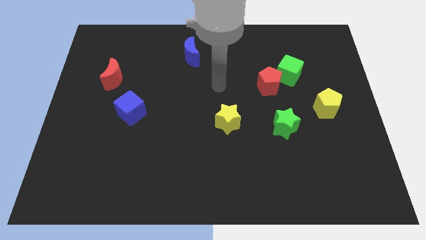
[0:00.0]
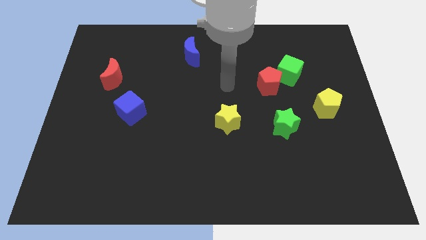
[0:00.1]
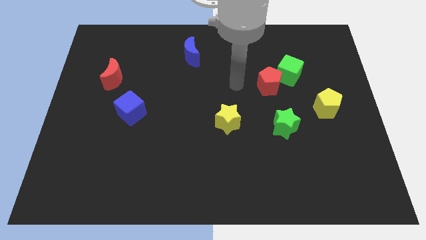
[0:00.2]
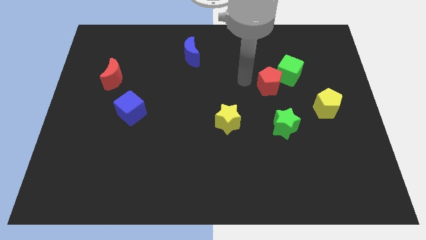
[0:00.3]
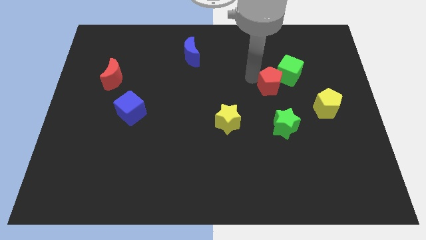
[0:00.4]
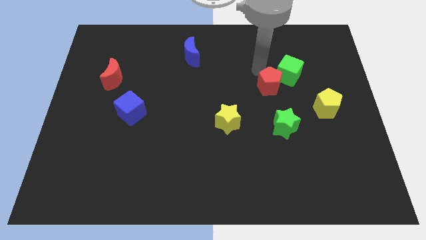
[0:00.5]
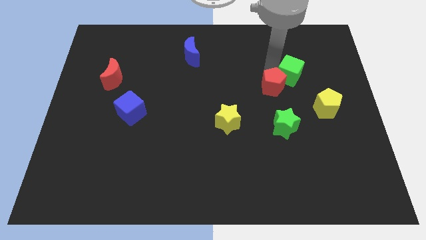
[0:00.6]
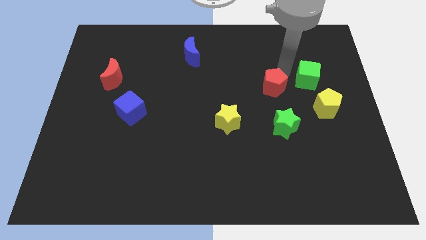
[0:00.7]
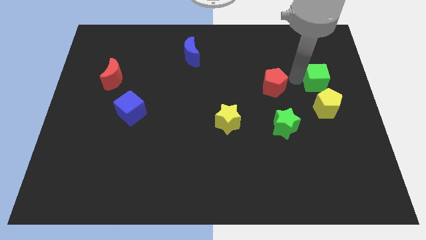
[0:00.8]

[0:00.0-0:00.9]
move the red pentagon away from the green cube

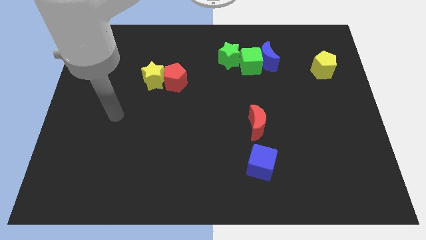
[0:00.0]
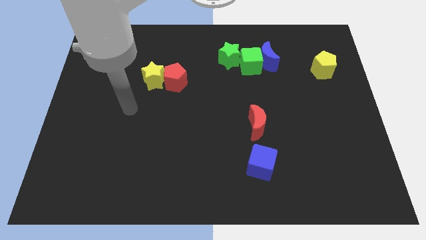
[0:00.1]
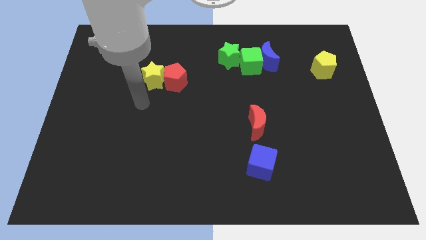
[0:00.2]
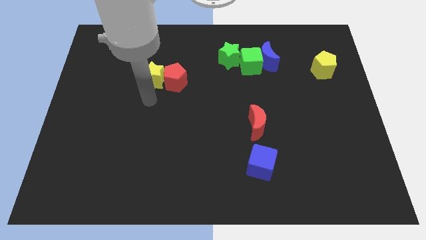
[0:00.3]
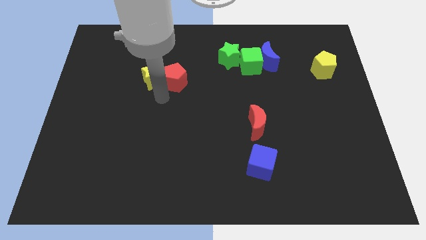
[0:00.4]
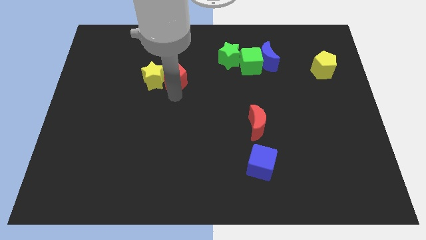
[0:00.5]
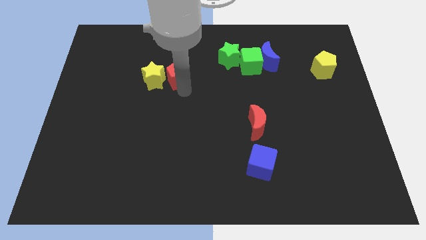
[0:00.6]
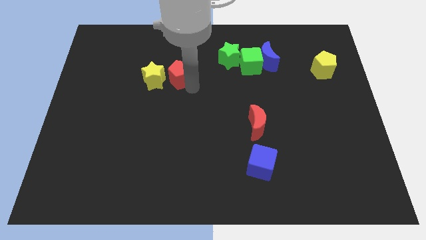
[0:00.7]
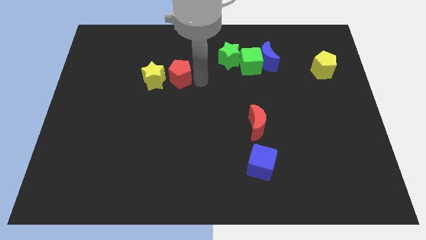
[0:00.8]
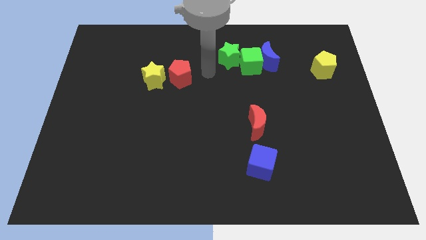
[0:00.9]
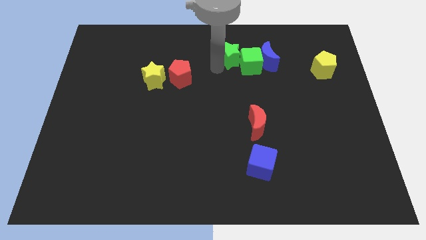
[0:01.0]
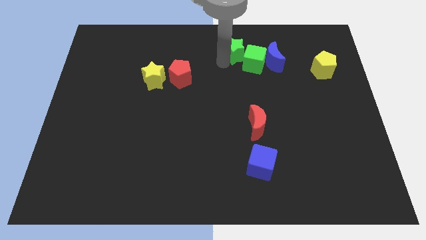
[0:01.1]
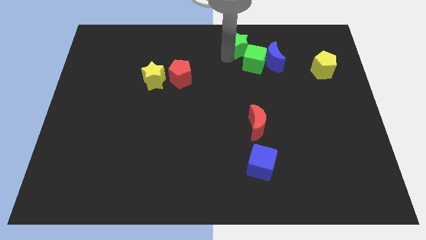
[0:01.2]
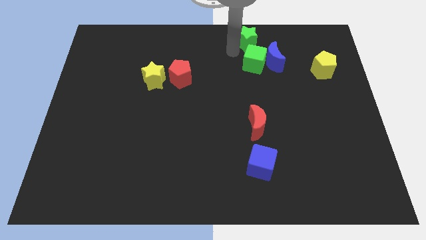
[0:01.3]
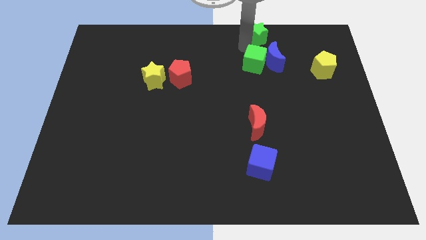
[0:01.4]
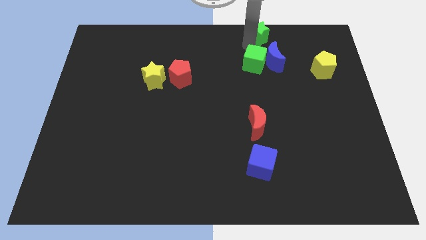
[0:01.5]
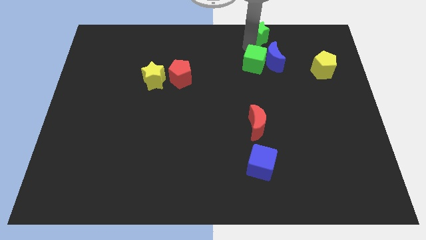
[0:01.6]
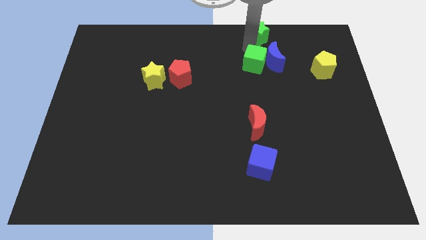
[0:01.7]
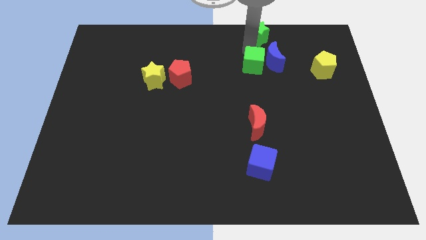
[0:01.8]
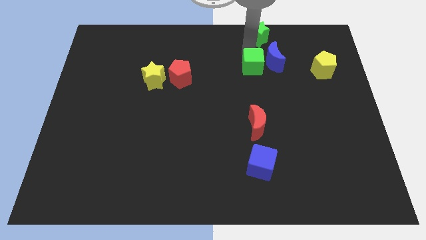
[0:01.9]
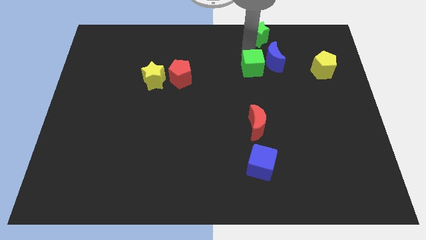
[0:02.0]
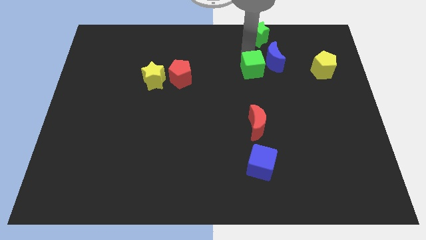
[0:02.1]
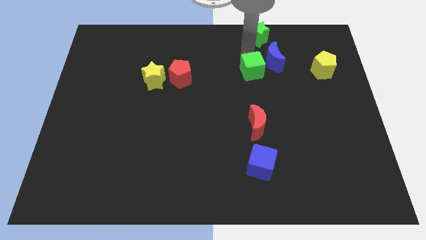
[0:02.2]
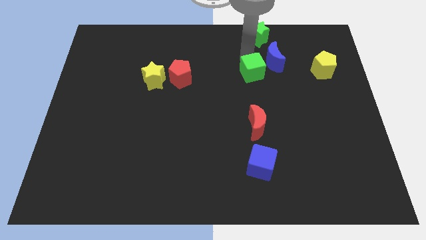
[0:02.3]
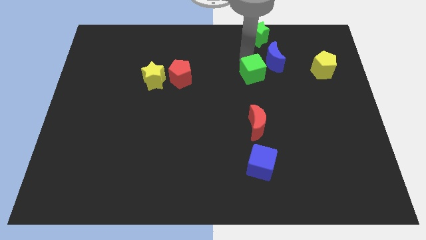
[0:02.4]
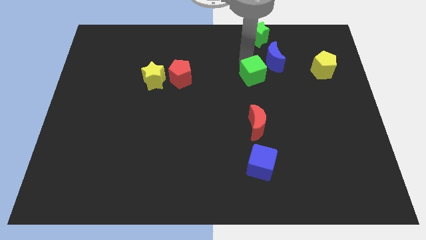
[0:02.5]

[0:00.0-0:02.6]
separate the green cube from the blue moon and green star

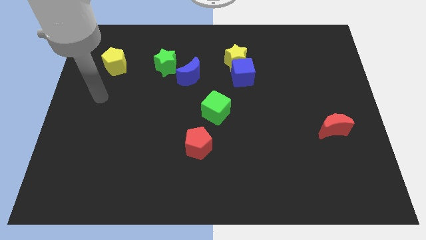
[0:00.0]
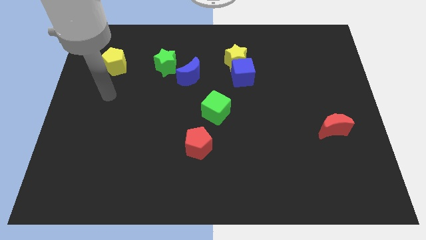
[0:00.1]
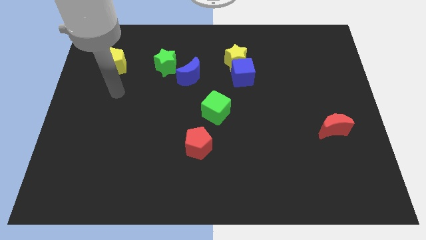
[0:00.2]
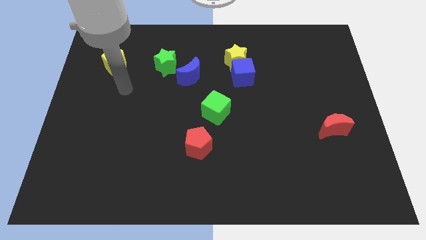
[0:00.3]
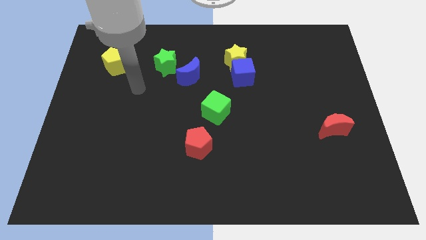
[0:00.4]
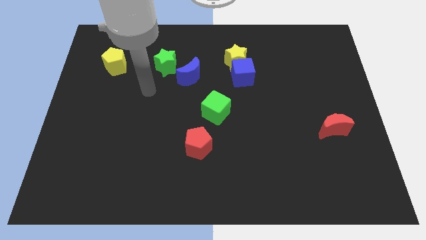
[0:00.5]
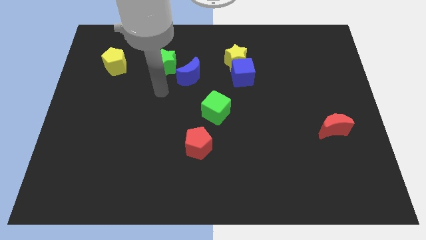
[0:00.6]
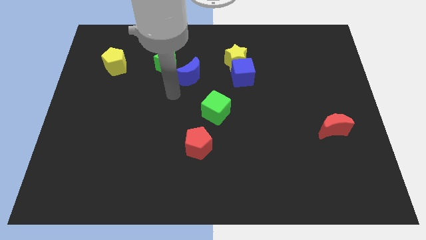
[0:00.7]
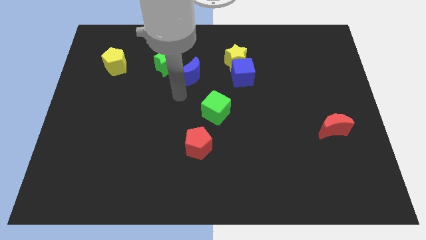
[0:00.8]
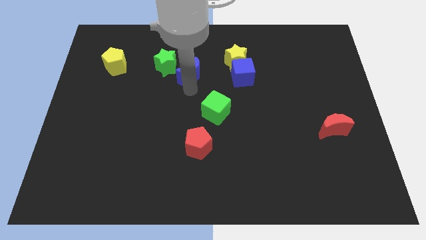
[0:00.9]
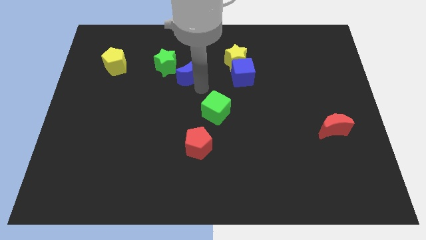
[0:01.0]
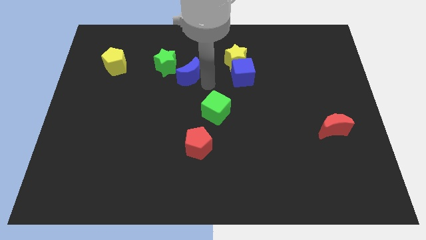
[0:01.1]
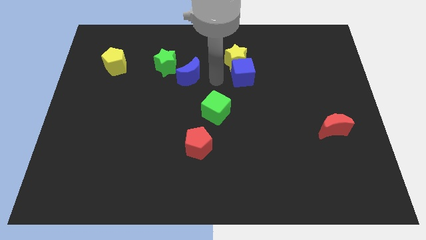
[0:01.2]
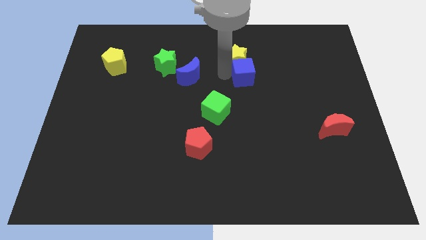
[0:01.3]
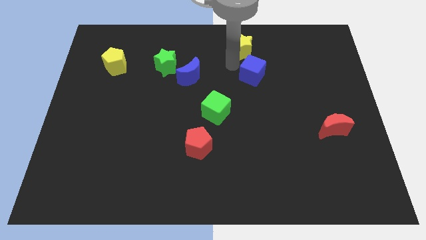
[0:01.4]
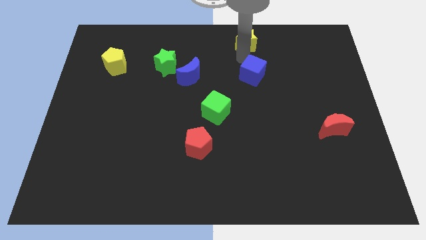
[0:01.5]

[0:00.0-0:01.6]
move the blue cube away from the yellow star

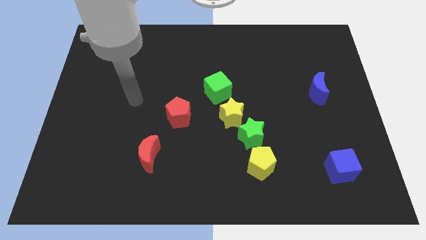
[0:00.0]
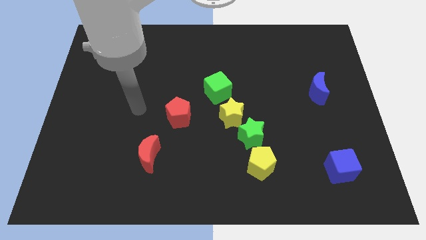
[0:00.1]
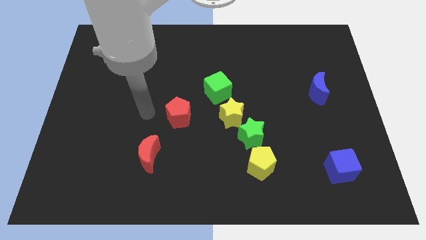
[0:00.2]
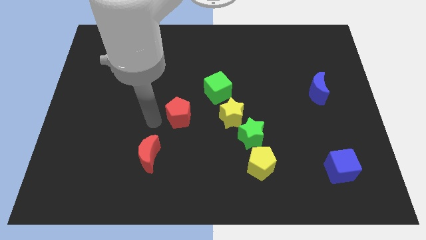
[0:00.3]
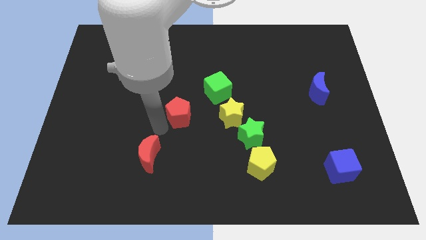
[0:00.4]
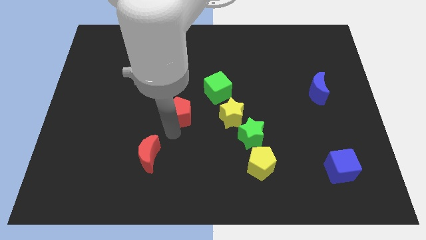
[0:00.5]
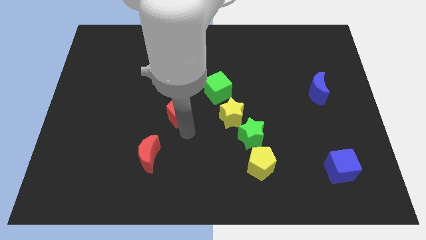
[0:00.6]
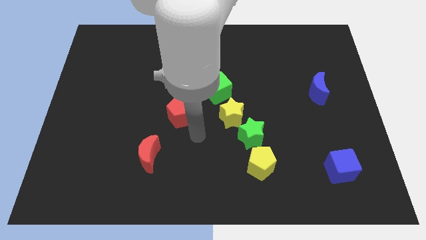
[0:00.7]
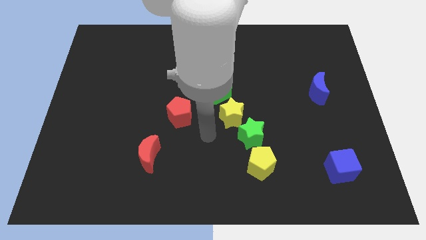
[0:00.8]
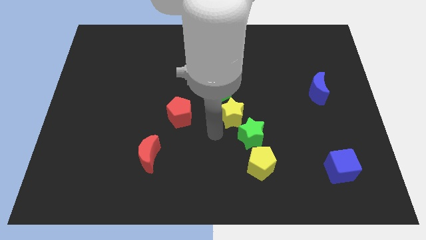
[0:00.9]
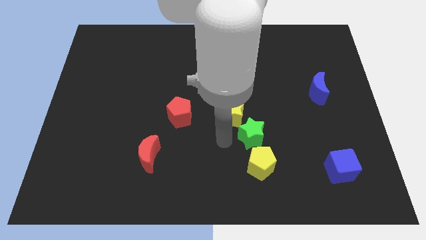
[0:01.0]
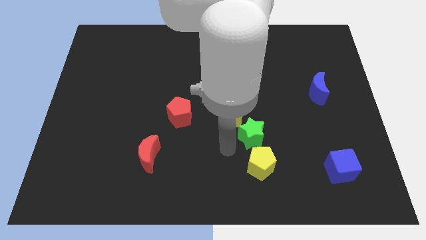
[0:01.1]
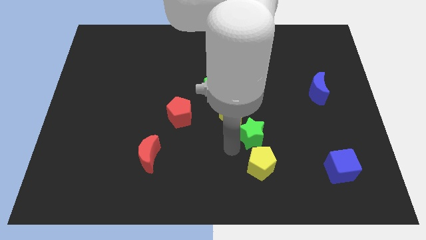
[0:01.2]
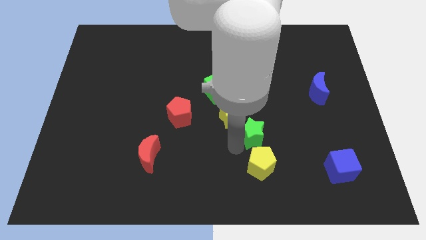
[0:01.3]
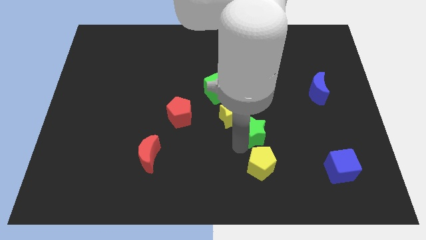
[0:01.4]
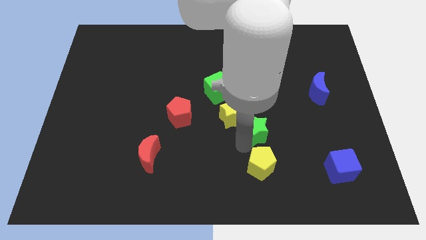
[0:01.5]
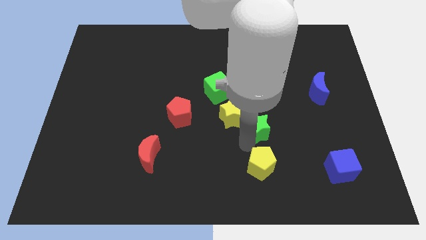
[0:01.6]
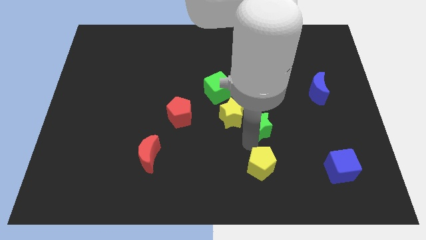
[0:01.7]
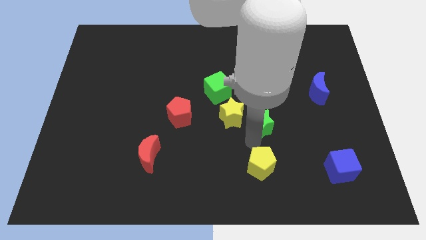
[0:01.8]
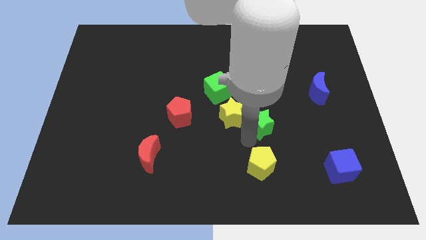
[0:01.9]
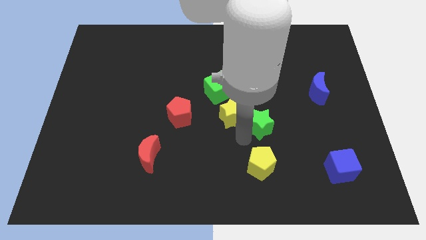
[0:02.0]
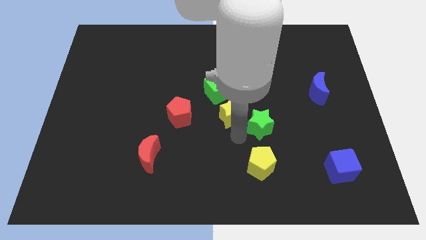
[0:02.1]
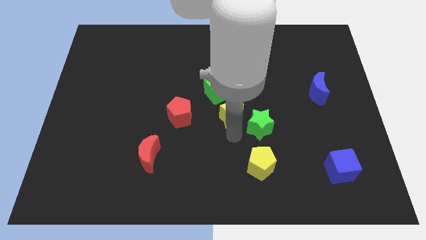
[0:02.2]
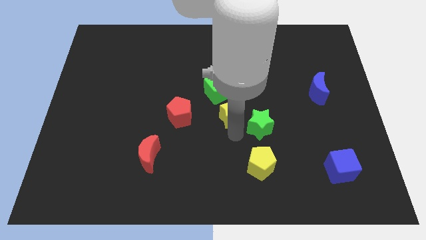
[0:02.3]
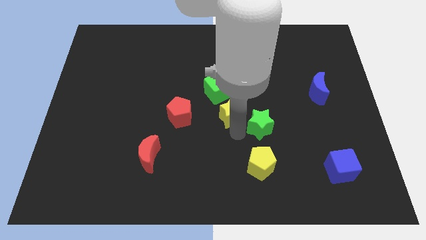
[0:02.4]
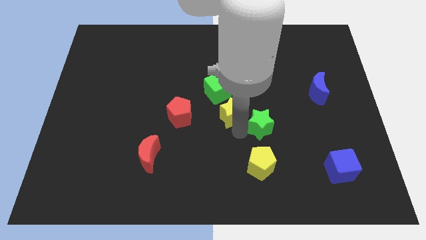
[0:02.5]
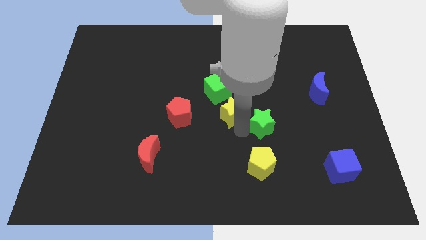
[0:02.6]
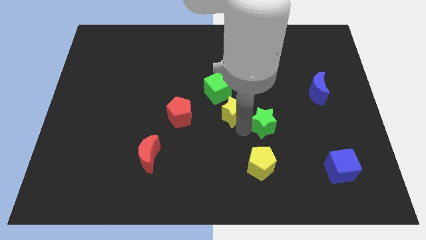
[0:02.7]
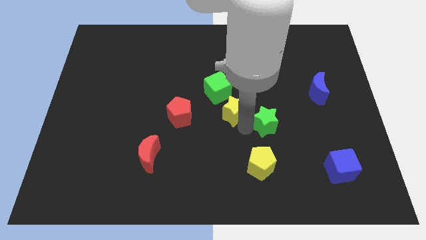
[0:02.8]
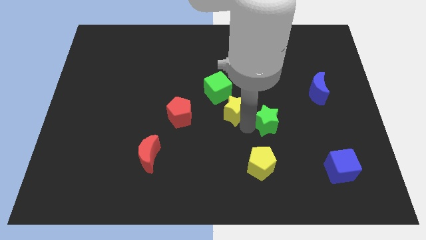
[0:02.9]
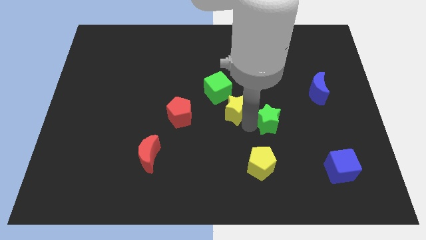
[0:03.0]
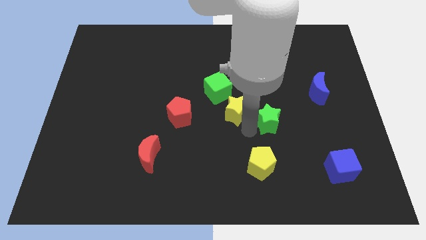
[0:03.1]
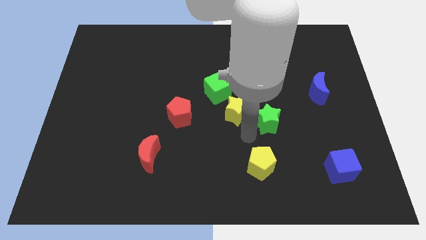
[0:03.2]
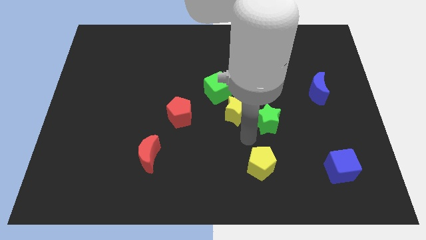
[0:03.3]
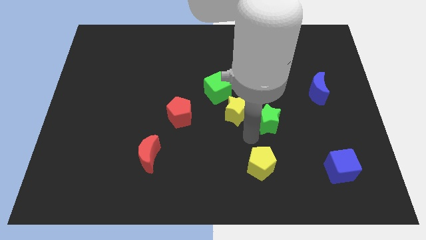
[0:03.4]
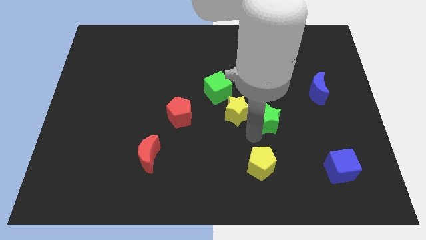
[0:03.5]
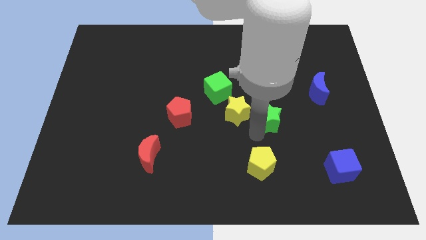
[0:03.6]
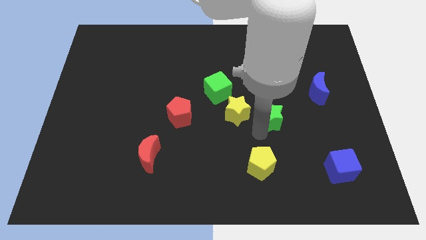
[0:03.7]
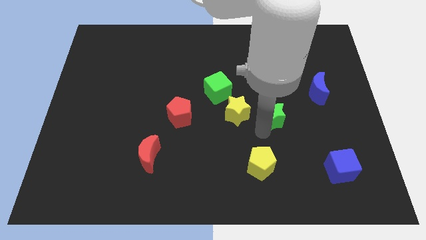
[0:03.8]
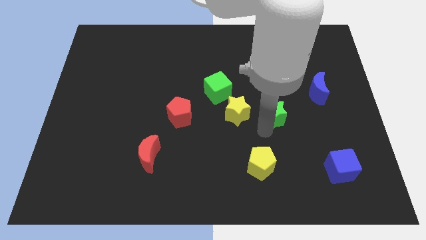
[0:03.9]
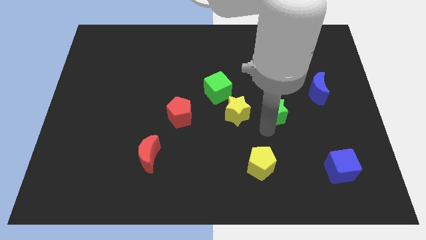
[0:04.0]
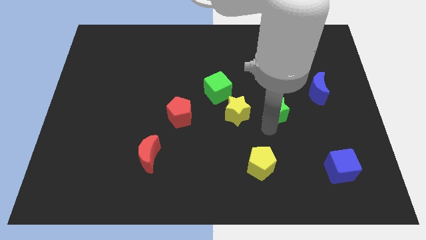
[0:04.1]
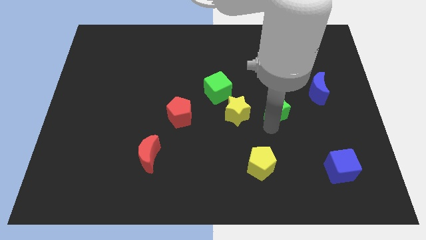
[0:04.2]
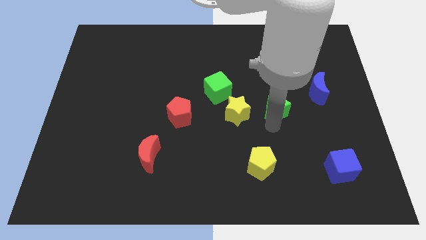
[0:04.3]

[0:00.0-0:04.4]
pull the green star apart from the yellow star and yellow pentagon
